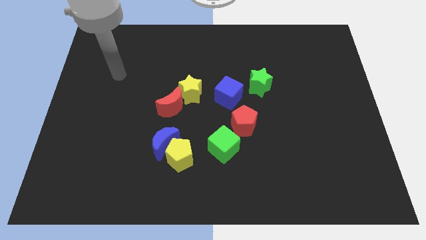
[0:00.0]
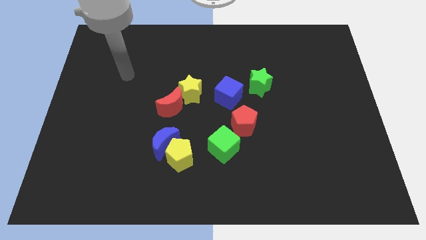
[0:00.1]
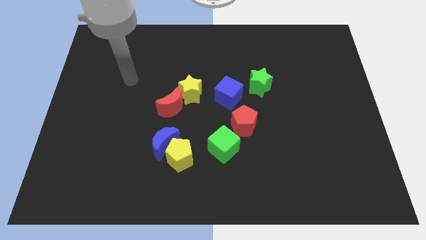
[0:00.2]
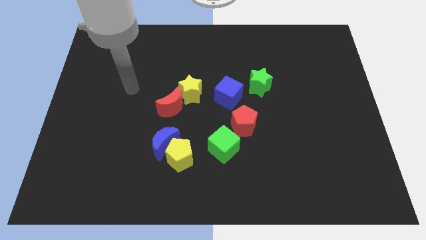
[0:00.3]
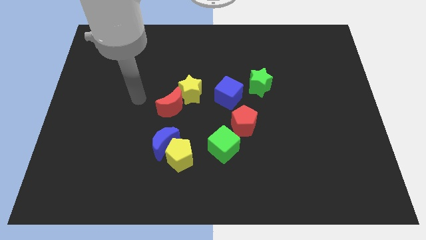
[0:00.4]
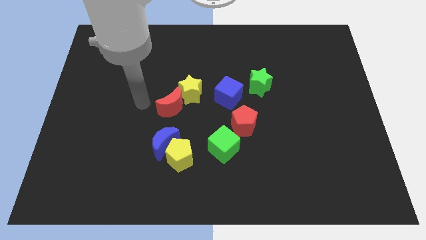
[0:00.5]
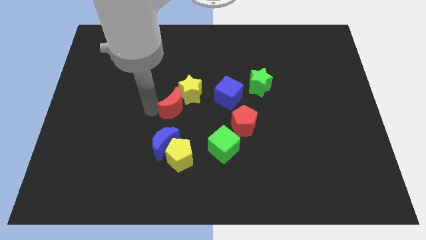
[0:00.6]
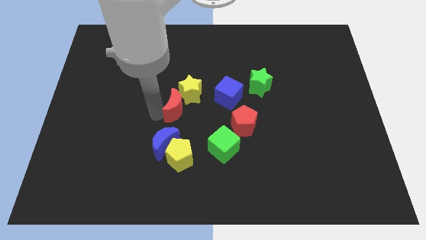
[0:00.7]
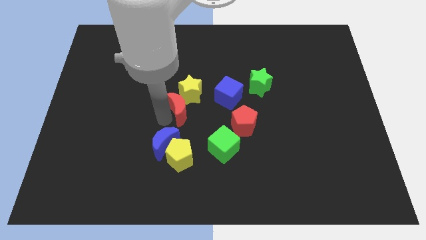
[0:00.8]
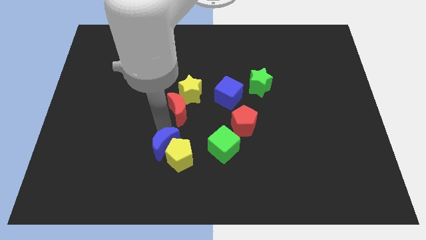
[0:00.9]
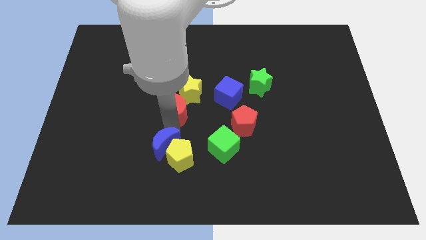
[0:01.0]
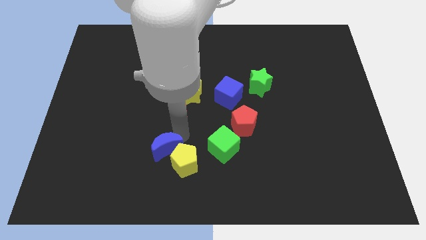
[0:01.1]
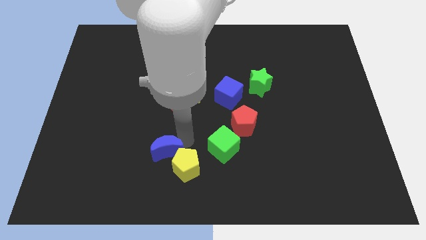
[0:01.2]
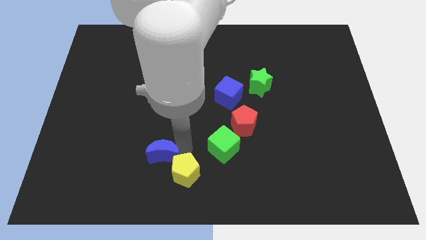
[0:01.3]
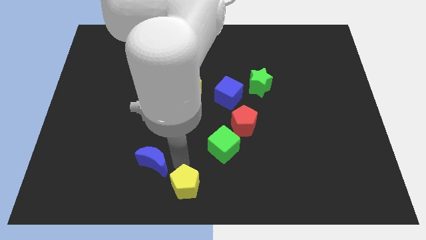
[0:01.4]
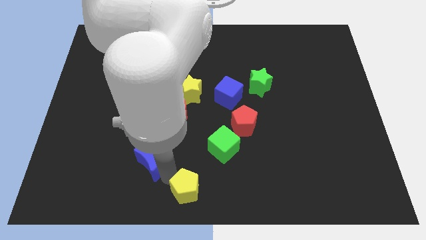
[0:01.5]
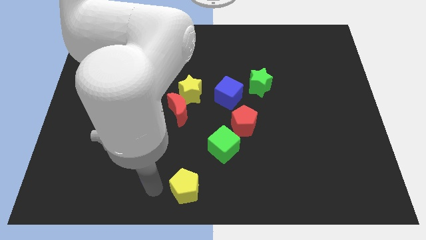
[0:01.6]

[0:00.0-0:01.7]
pull the blue moon apart from the yellow pentagon

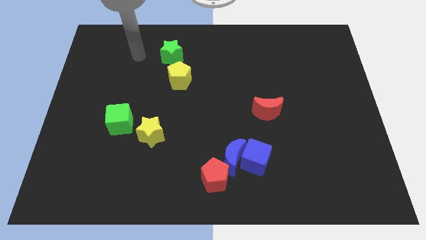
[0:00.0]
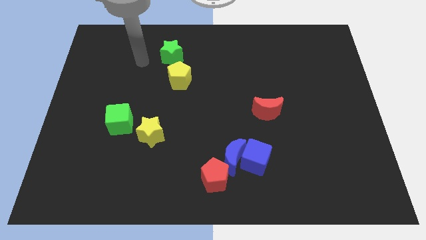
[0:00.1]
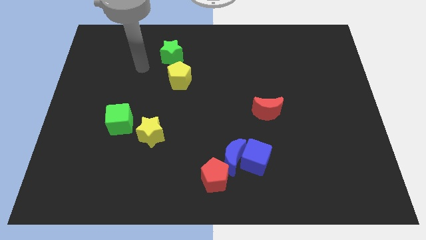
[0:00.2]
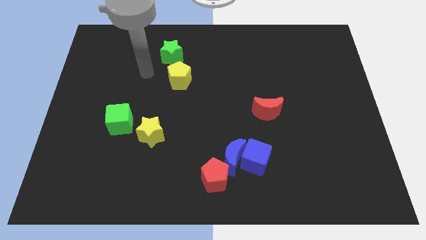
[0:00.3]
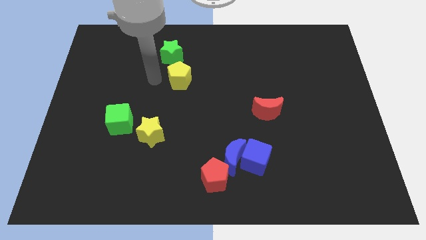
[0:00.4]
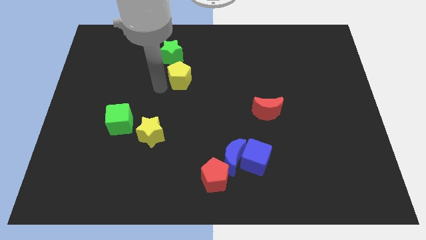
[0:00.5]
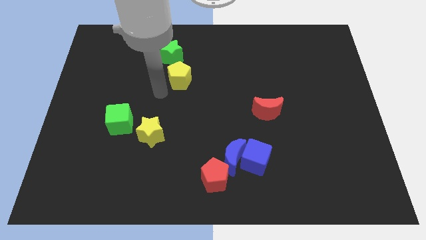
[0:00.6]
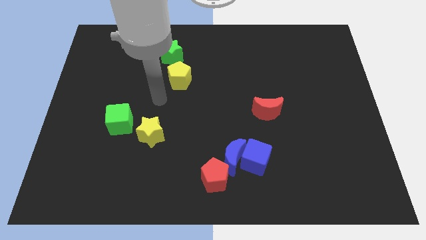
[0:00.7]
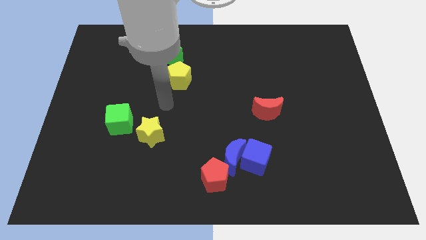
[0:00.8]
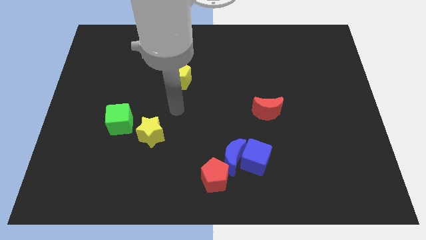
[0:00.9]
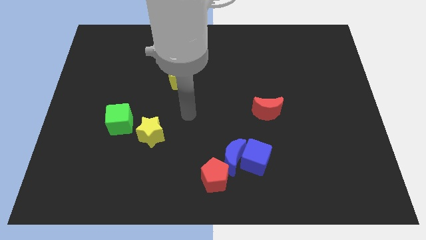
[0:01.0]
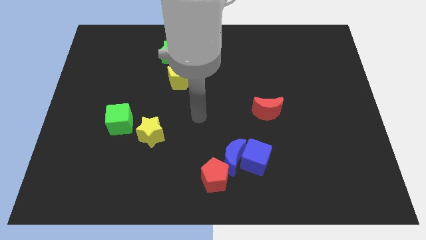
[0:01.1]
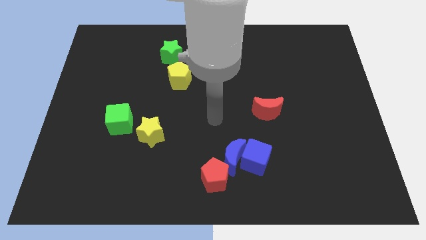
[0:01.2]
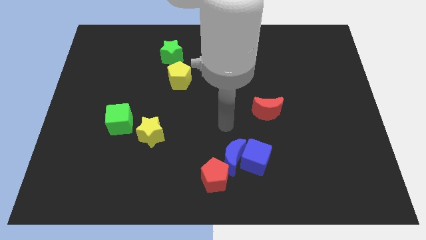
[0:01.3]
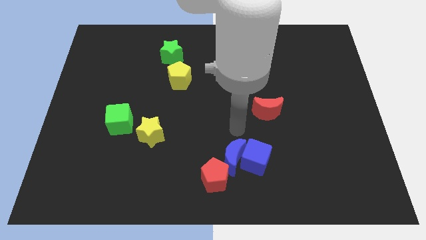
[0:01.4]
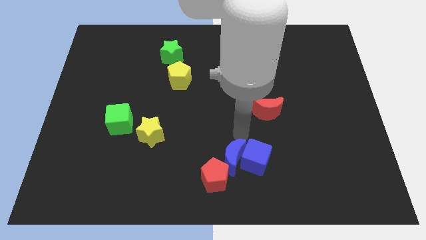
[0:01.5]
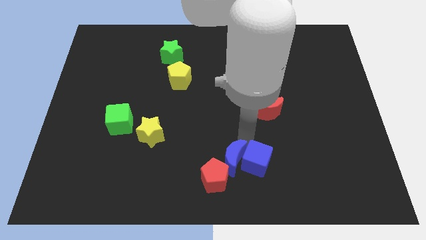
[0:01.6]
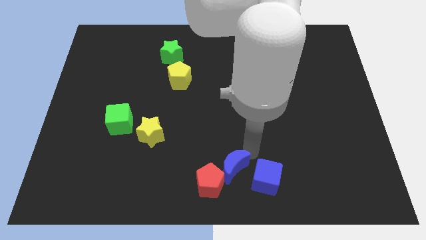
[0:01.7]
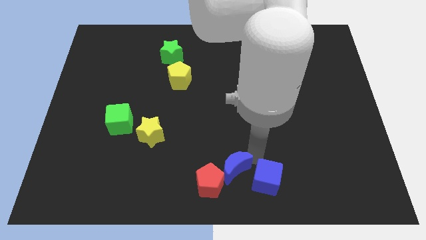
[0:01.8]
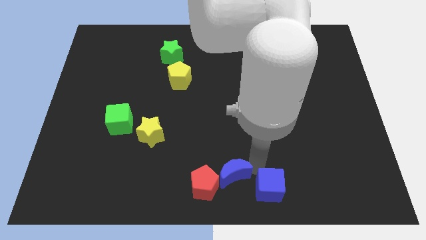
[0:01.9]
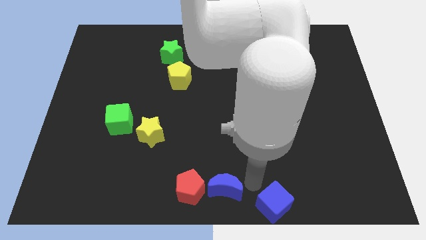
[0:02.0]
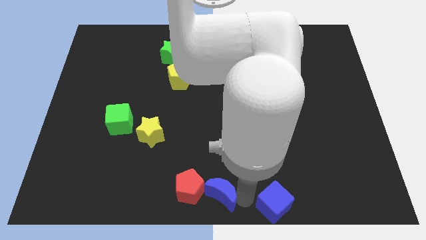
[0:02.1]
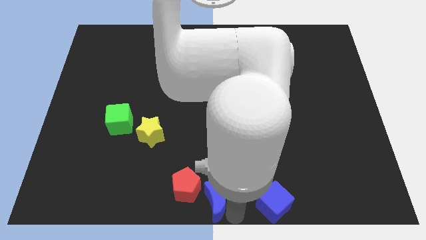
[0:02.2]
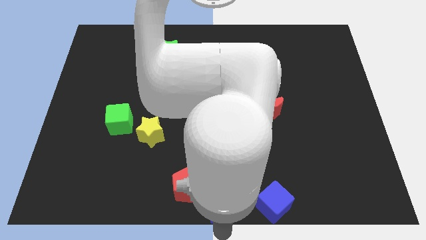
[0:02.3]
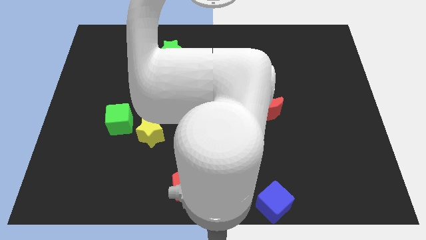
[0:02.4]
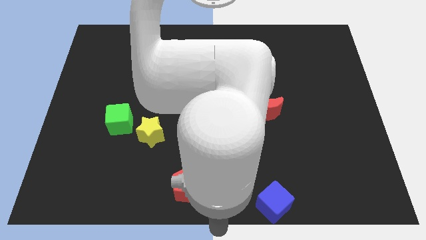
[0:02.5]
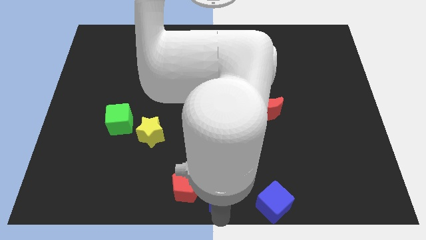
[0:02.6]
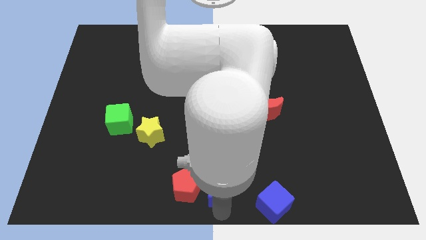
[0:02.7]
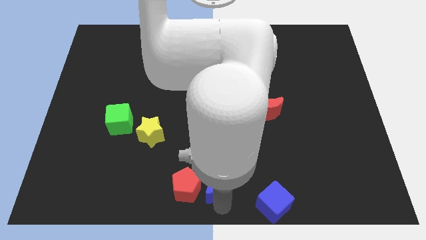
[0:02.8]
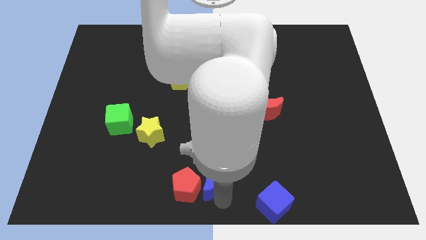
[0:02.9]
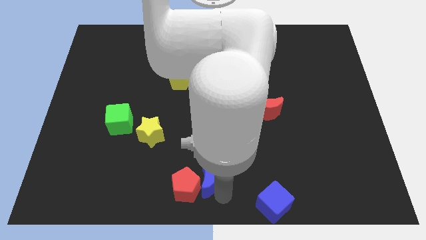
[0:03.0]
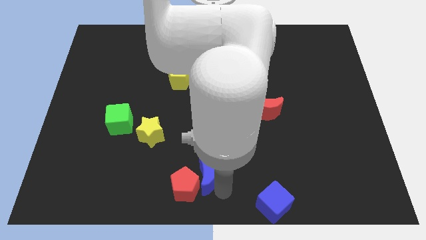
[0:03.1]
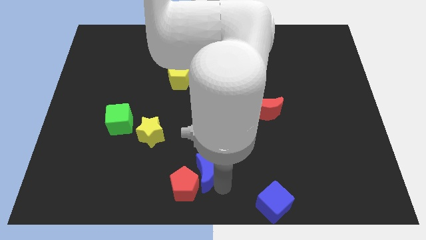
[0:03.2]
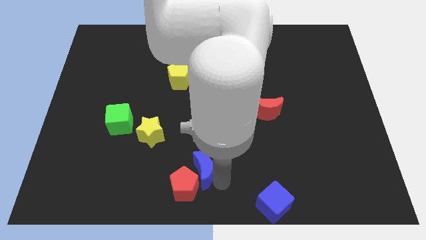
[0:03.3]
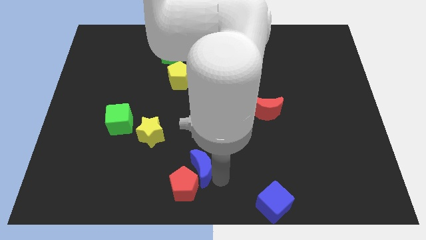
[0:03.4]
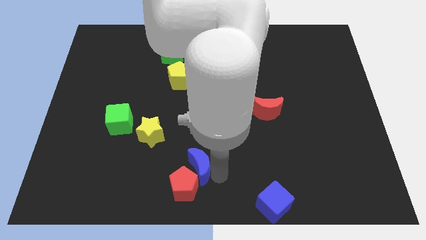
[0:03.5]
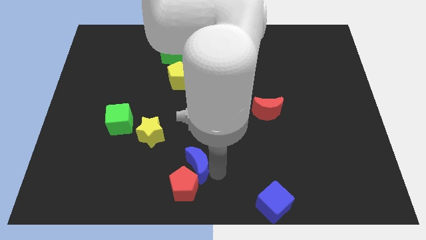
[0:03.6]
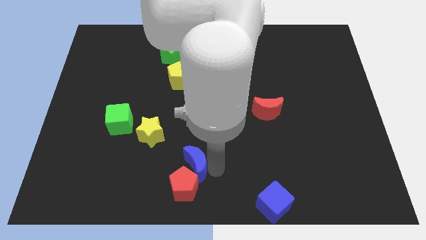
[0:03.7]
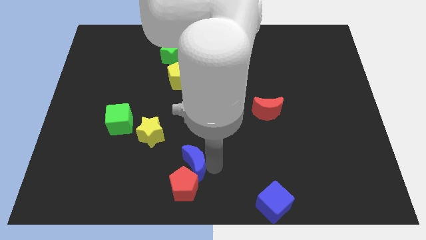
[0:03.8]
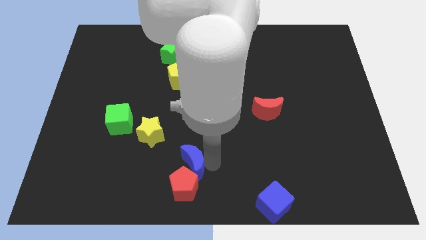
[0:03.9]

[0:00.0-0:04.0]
separate the blue moon from the blue cube and red pentagon

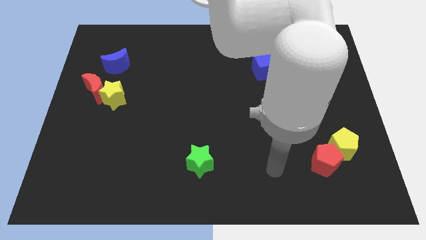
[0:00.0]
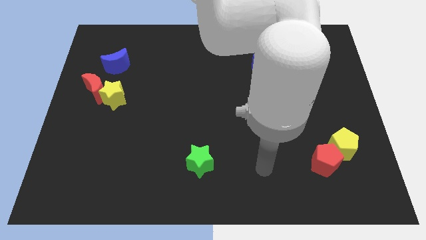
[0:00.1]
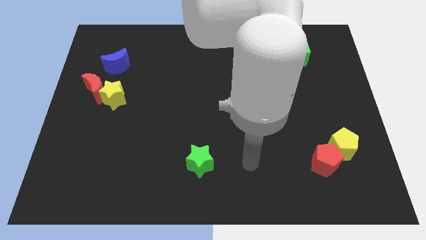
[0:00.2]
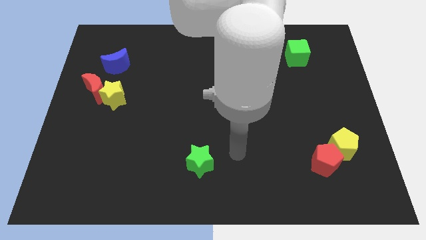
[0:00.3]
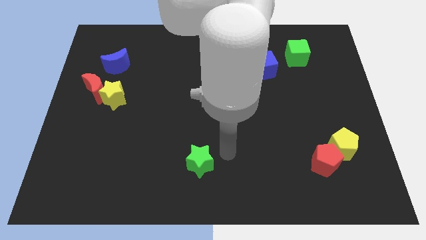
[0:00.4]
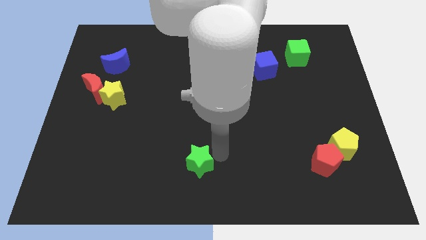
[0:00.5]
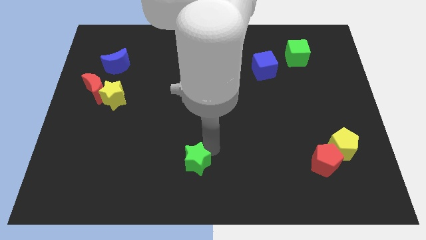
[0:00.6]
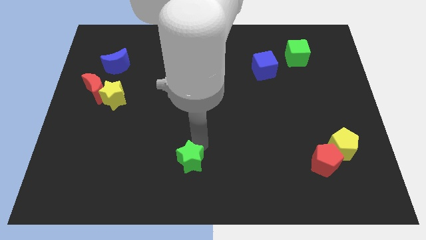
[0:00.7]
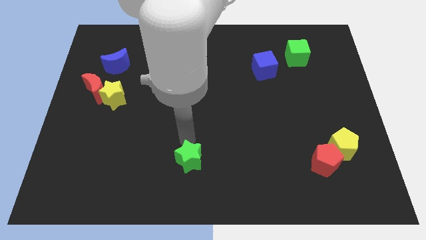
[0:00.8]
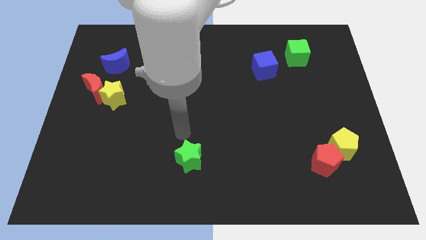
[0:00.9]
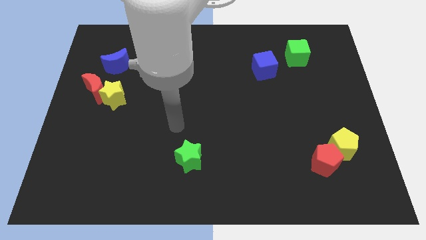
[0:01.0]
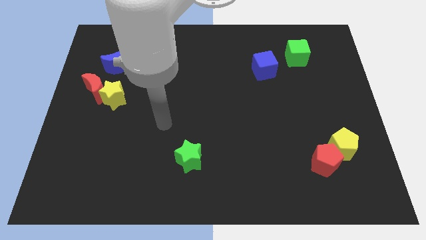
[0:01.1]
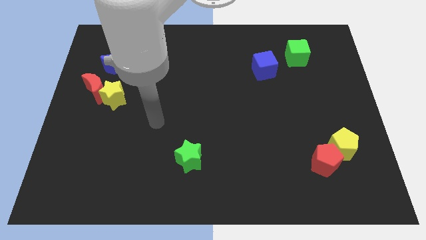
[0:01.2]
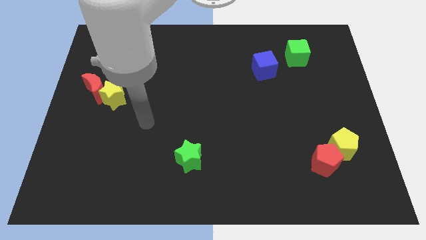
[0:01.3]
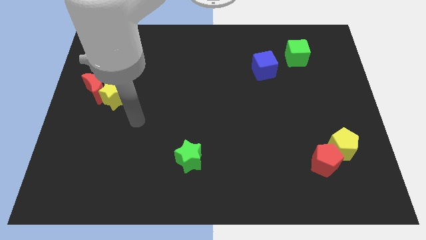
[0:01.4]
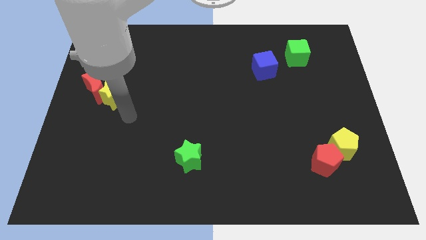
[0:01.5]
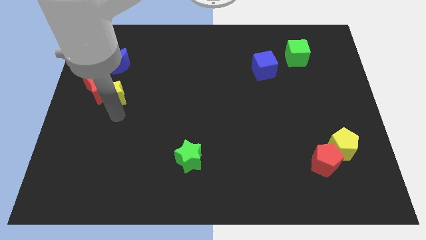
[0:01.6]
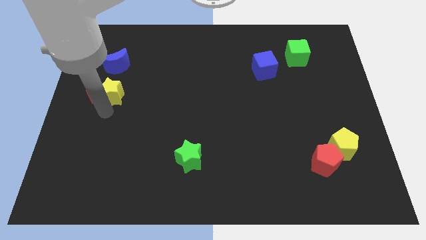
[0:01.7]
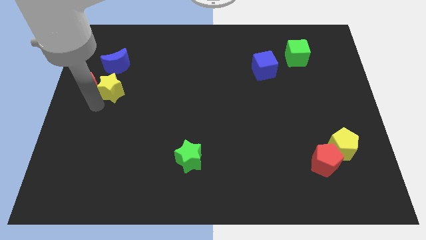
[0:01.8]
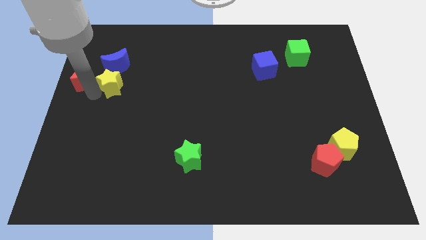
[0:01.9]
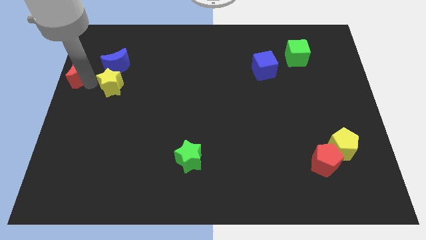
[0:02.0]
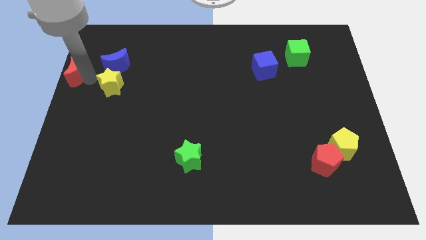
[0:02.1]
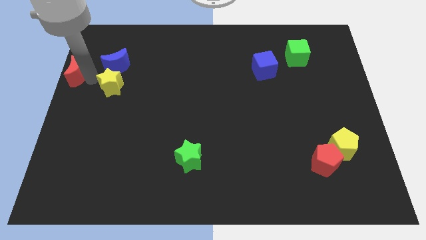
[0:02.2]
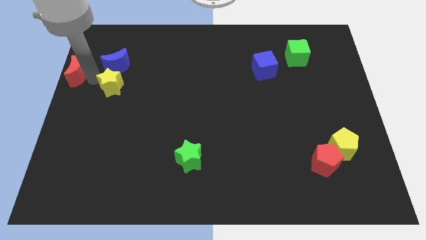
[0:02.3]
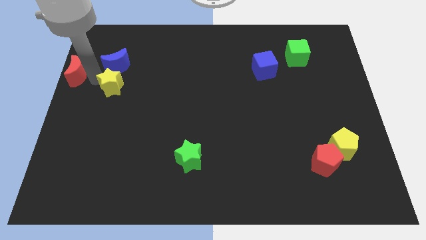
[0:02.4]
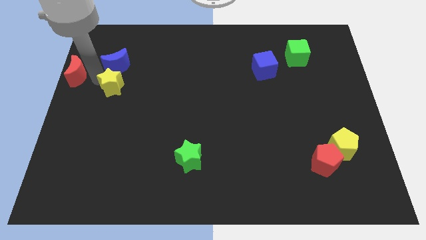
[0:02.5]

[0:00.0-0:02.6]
pull the yellow star apart from the red moon

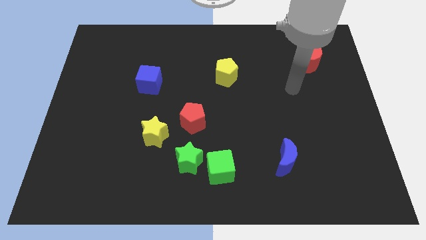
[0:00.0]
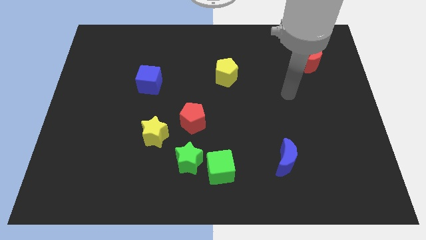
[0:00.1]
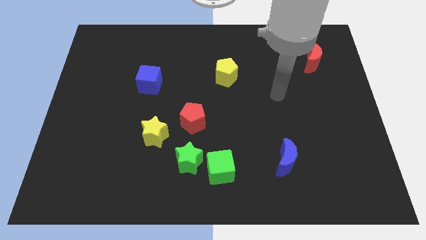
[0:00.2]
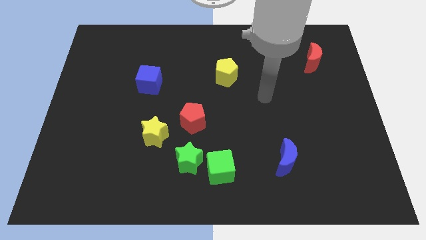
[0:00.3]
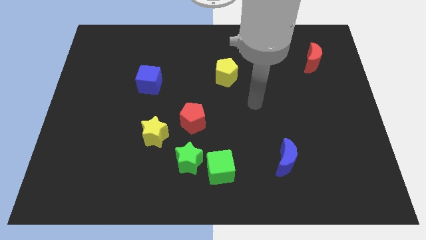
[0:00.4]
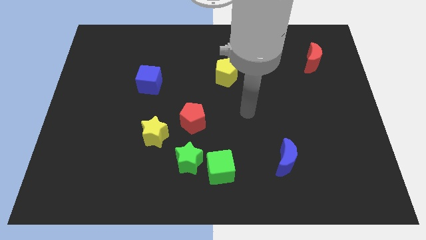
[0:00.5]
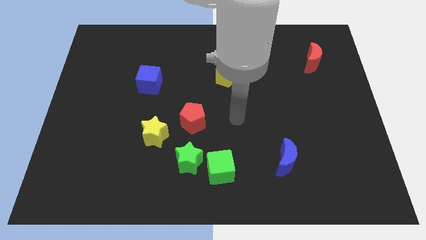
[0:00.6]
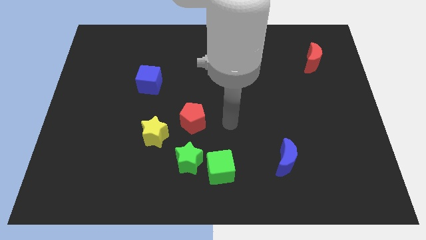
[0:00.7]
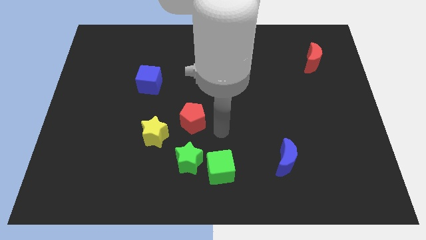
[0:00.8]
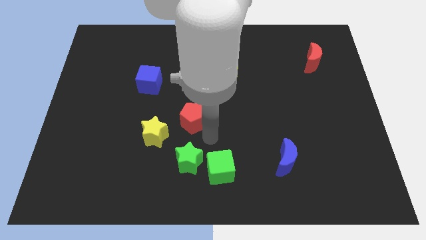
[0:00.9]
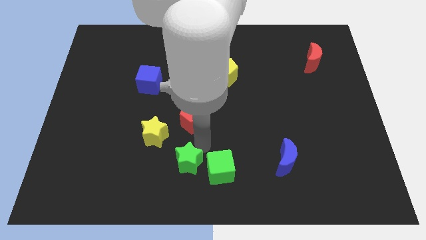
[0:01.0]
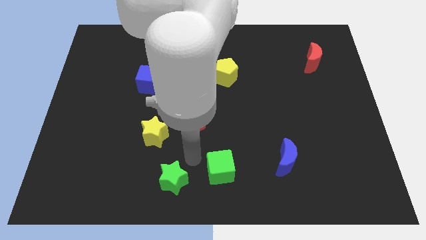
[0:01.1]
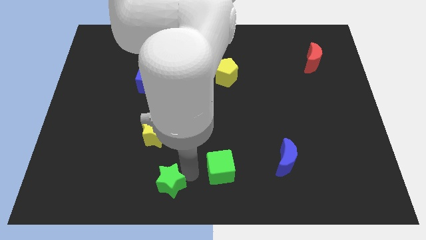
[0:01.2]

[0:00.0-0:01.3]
separate the green cube from the green star

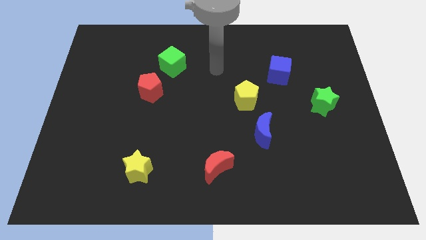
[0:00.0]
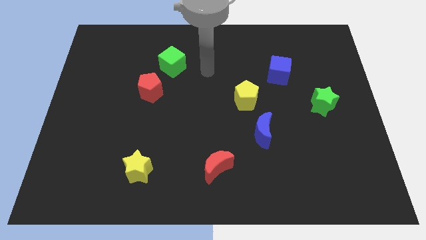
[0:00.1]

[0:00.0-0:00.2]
pull the red pentagon apart from the green cube
